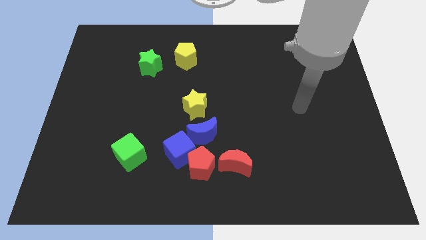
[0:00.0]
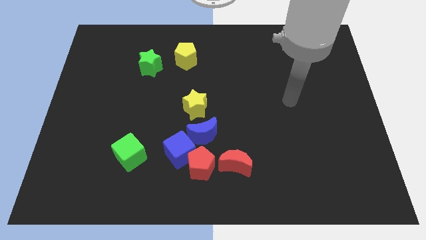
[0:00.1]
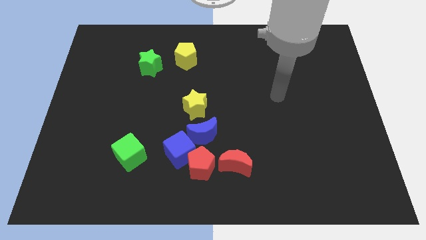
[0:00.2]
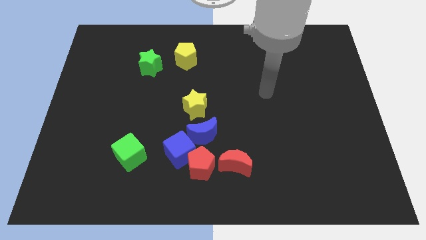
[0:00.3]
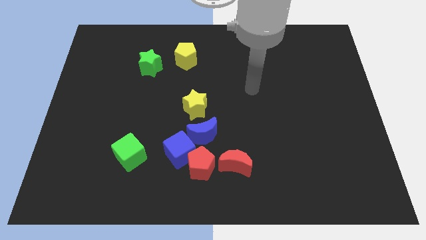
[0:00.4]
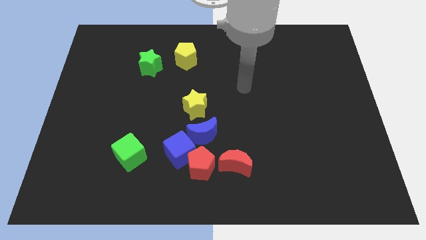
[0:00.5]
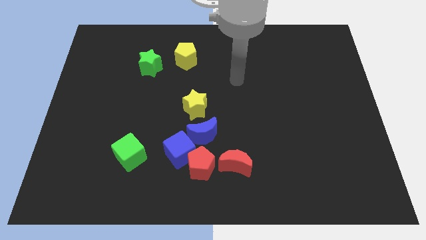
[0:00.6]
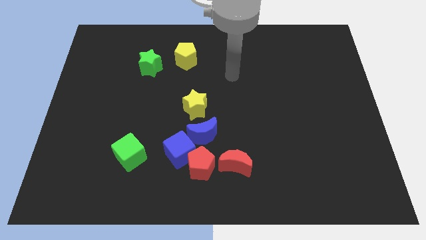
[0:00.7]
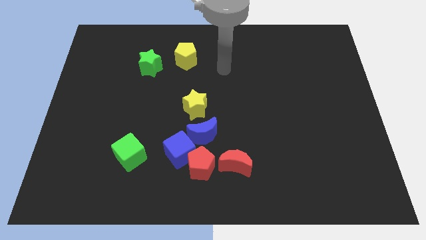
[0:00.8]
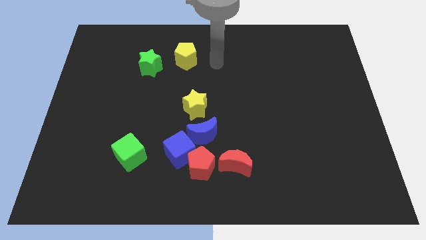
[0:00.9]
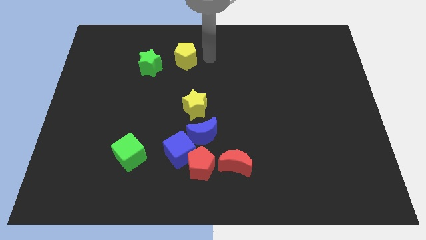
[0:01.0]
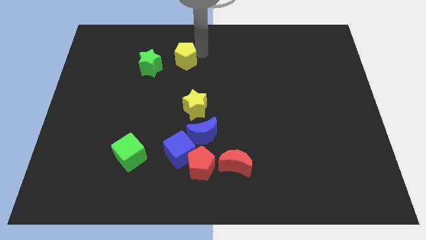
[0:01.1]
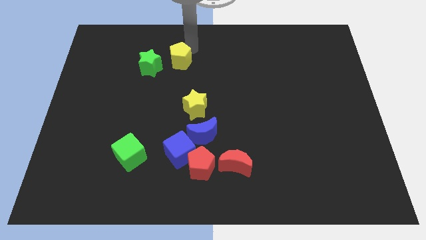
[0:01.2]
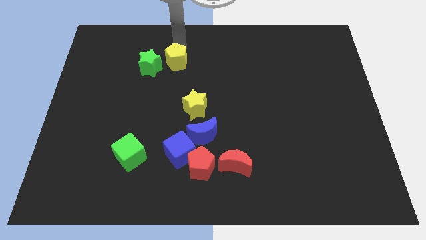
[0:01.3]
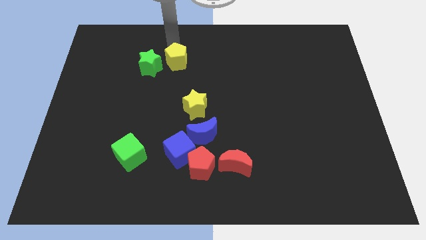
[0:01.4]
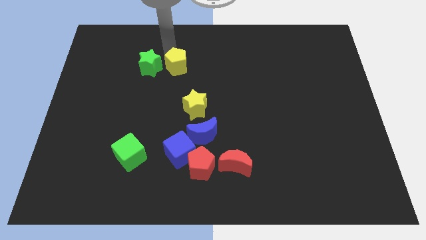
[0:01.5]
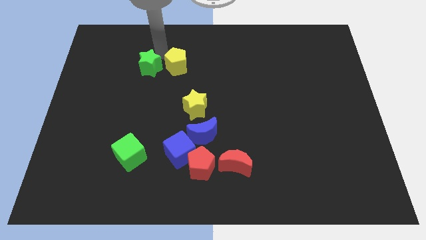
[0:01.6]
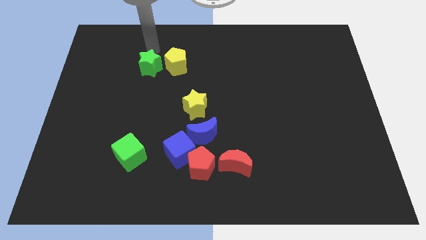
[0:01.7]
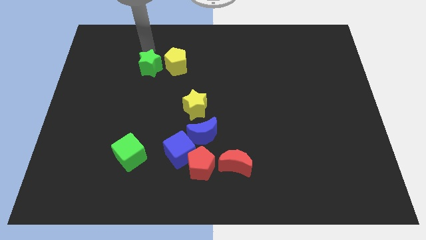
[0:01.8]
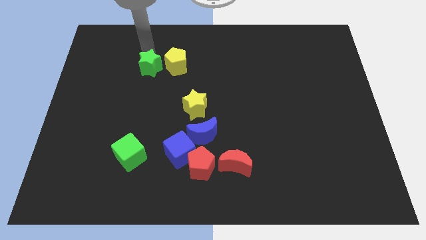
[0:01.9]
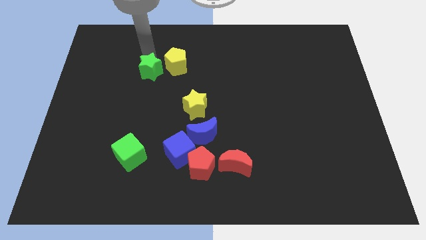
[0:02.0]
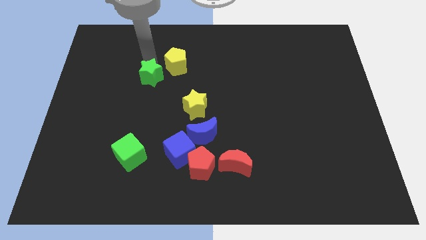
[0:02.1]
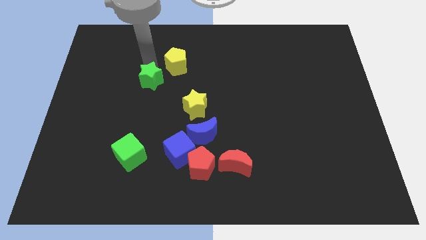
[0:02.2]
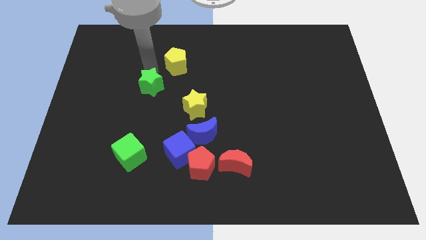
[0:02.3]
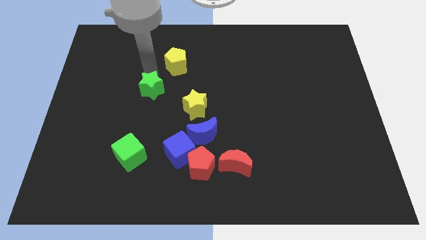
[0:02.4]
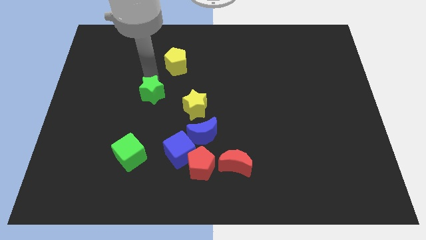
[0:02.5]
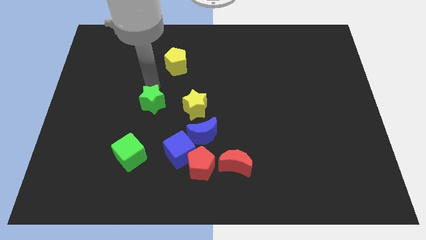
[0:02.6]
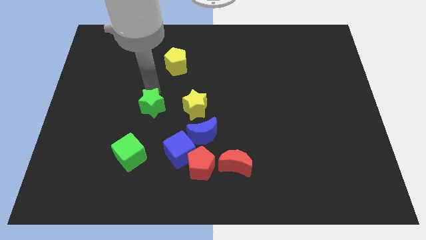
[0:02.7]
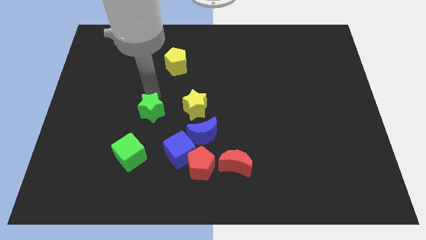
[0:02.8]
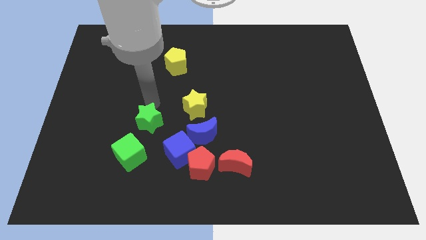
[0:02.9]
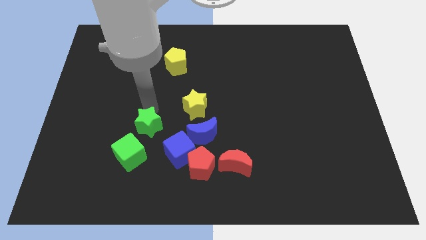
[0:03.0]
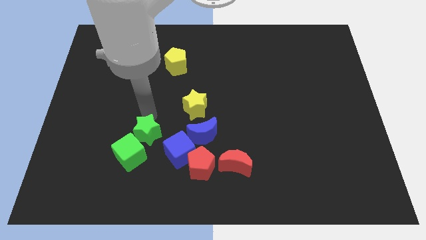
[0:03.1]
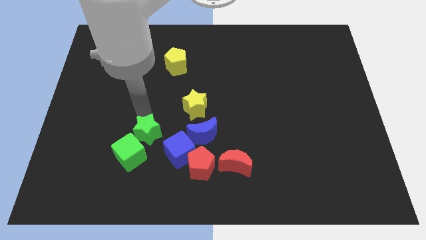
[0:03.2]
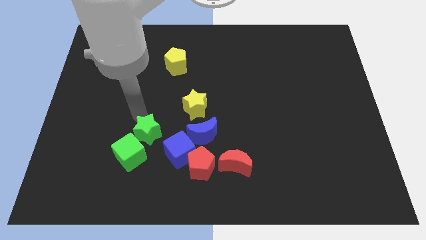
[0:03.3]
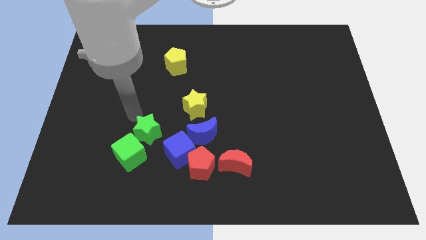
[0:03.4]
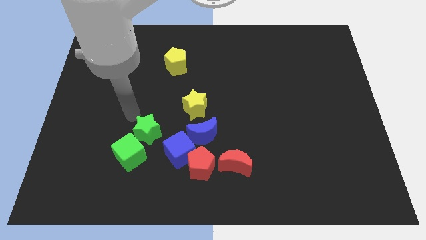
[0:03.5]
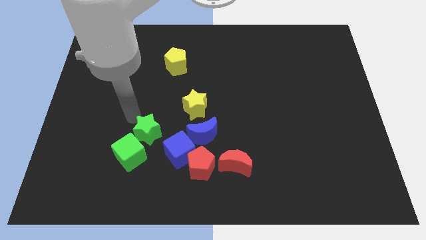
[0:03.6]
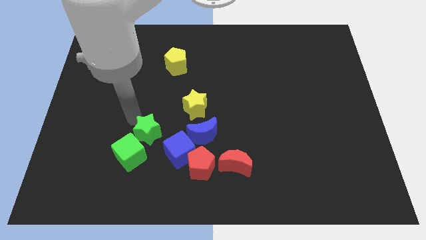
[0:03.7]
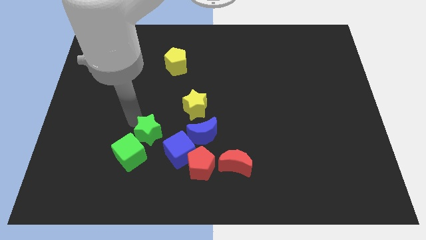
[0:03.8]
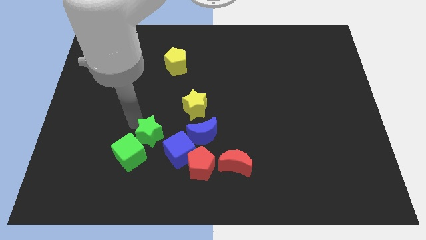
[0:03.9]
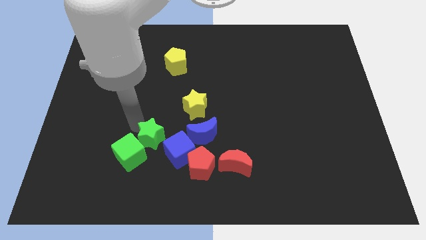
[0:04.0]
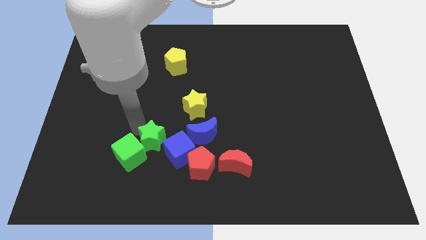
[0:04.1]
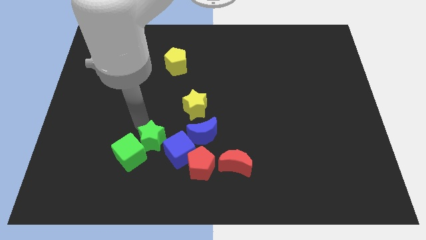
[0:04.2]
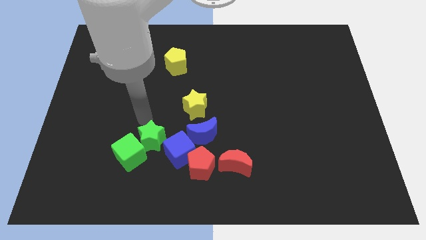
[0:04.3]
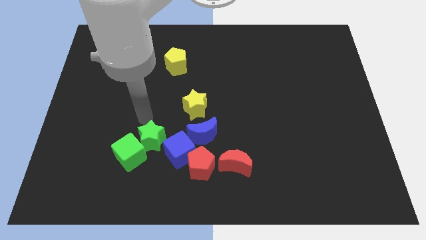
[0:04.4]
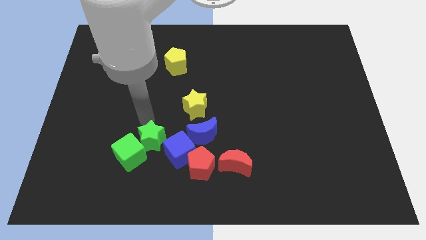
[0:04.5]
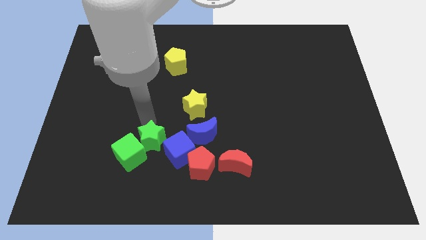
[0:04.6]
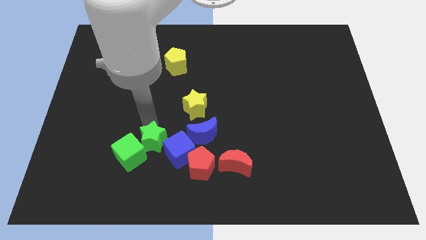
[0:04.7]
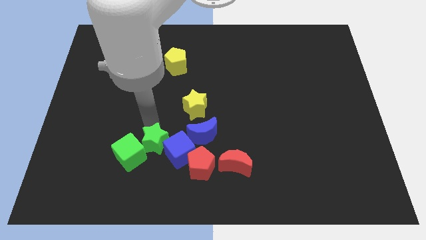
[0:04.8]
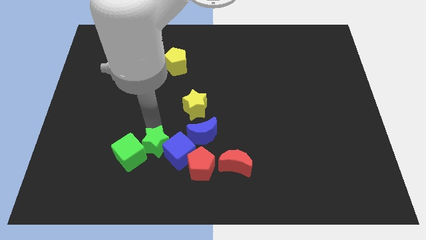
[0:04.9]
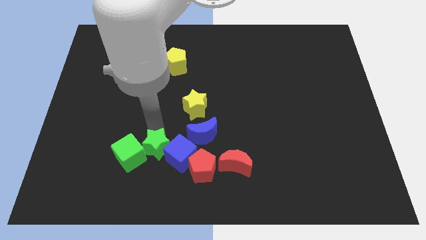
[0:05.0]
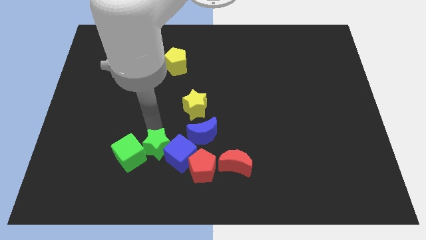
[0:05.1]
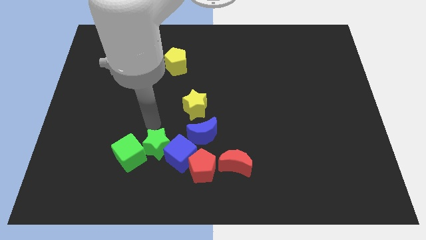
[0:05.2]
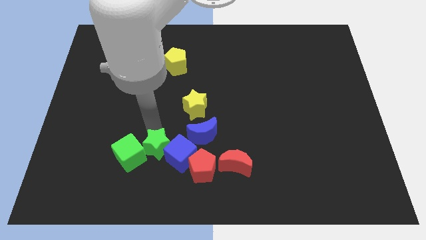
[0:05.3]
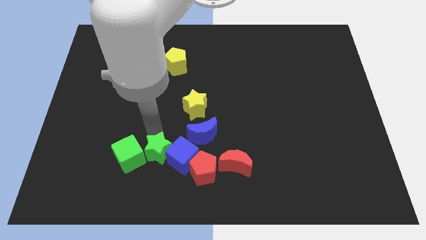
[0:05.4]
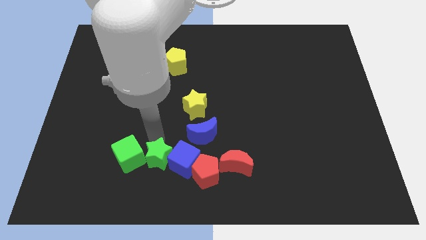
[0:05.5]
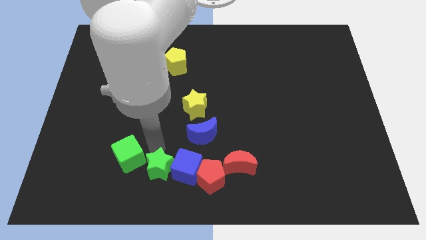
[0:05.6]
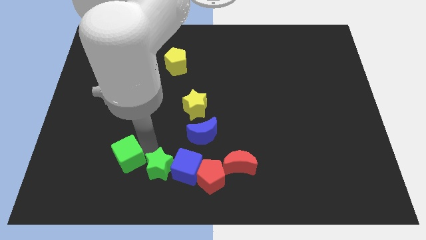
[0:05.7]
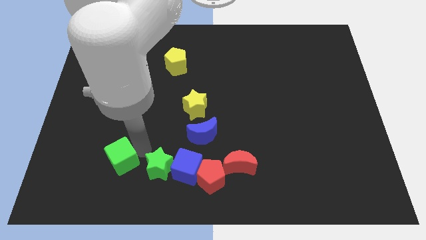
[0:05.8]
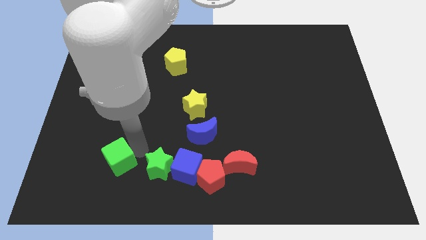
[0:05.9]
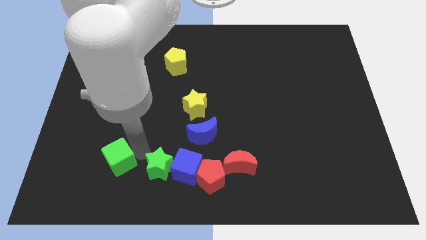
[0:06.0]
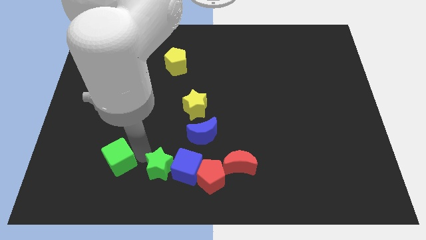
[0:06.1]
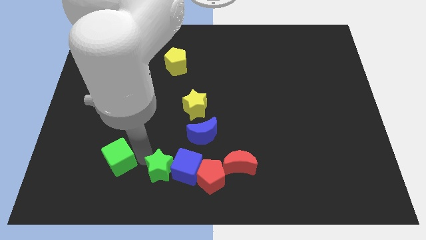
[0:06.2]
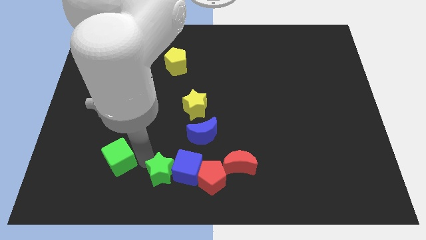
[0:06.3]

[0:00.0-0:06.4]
move the green star to the bottom side
